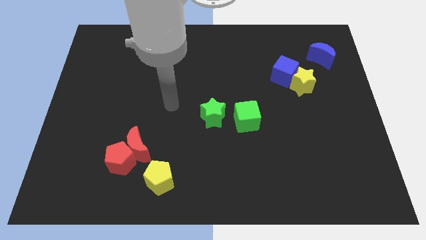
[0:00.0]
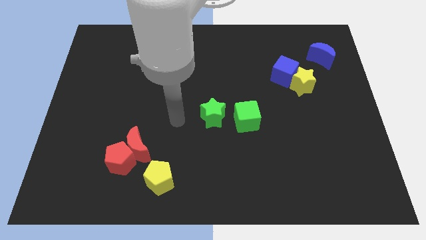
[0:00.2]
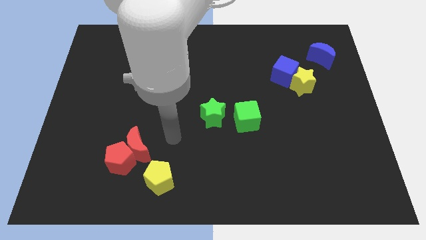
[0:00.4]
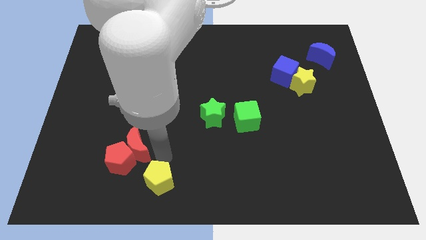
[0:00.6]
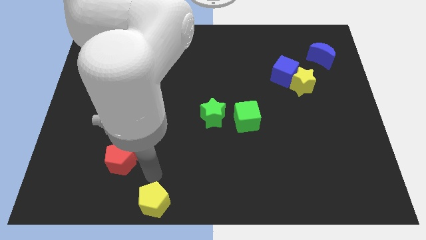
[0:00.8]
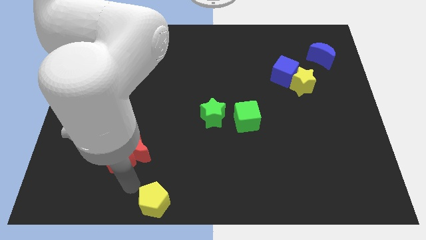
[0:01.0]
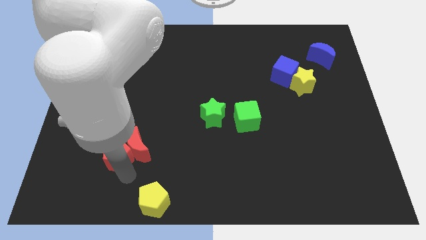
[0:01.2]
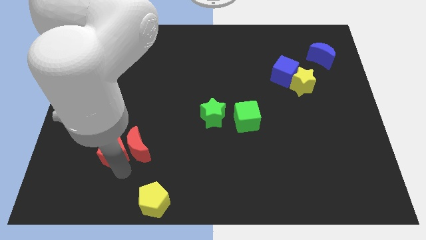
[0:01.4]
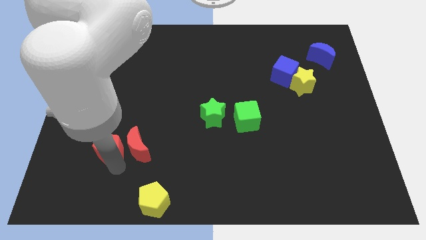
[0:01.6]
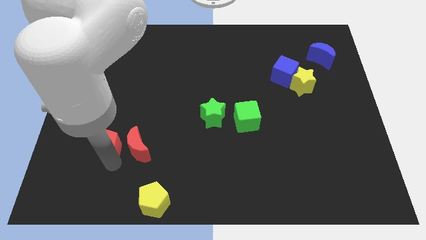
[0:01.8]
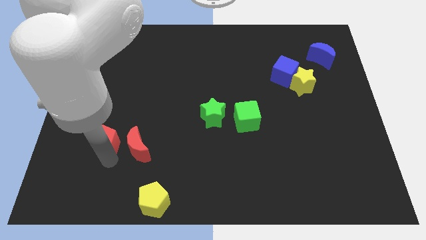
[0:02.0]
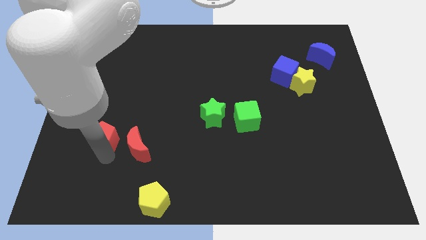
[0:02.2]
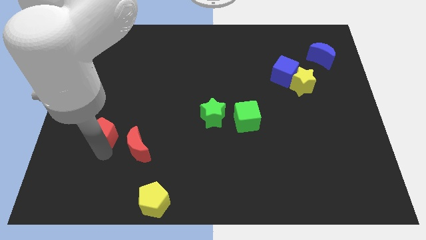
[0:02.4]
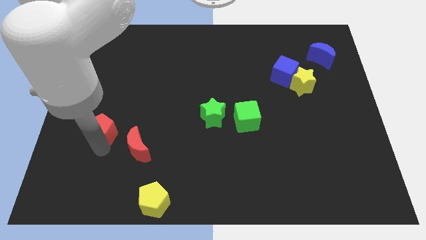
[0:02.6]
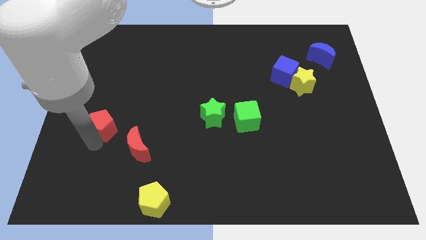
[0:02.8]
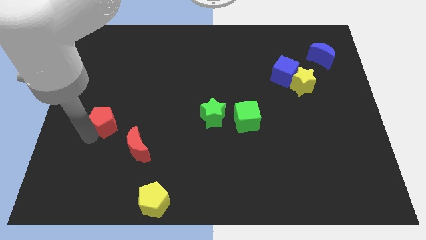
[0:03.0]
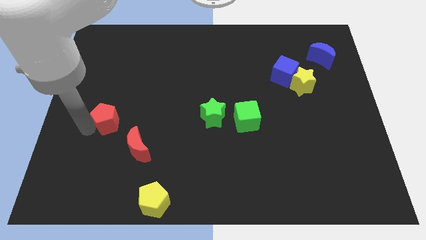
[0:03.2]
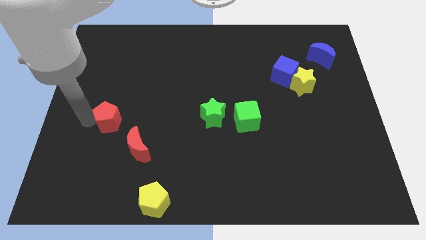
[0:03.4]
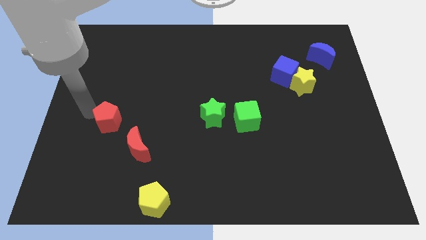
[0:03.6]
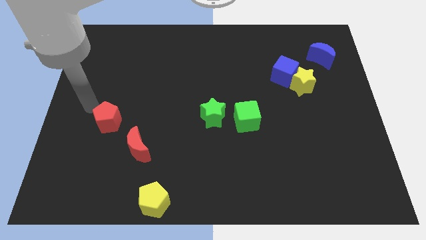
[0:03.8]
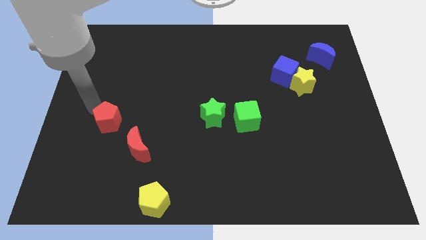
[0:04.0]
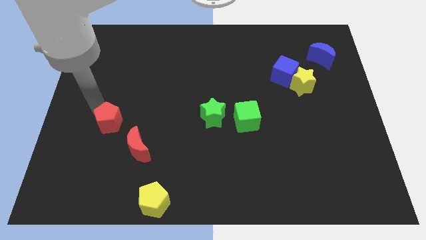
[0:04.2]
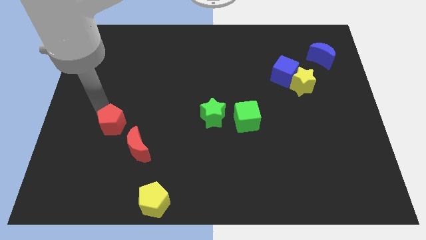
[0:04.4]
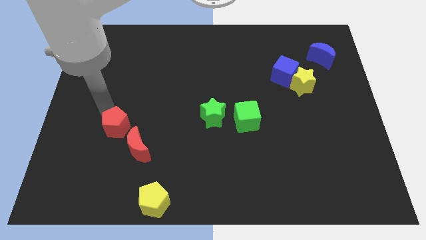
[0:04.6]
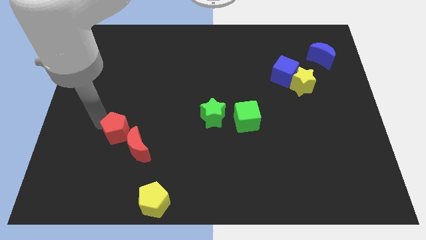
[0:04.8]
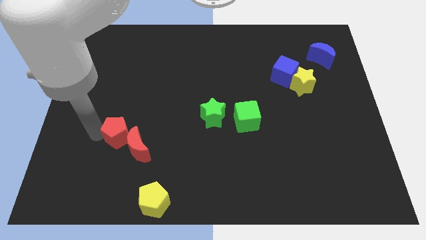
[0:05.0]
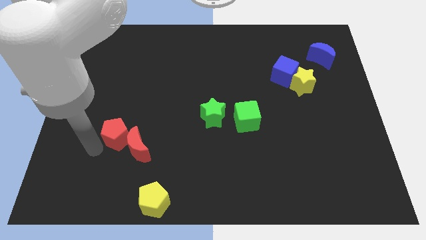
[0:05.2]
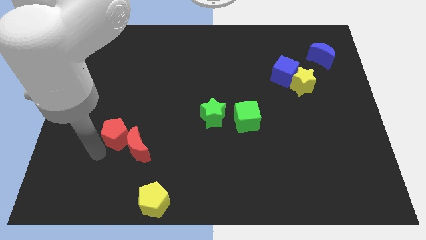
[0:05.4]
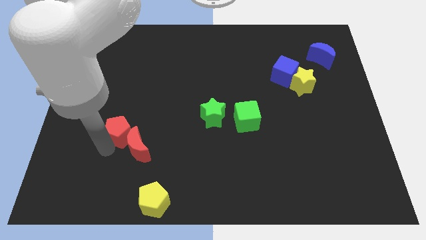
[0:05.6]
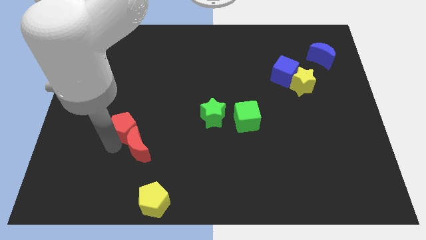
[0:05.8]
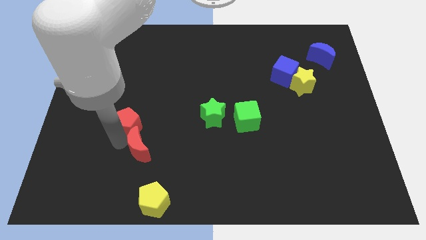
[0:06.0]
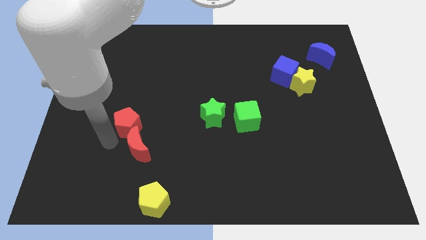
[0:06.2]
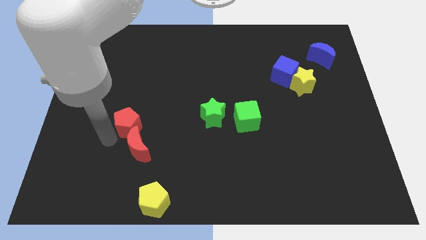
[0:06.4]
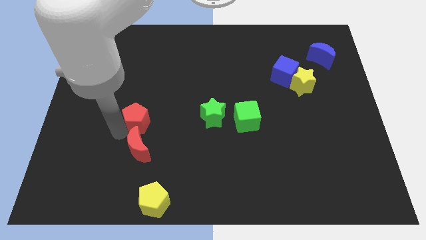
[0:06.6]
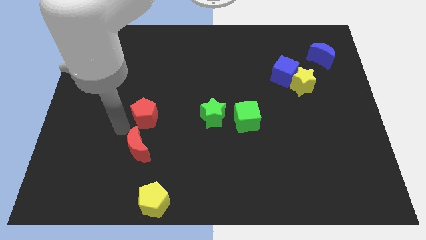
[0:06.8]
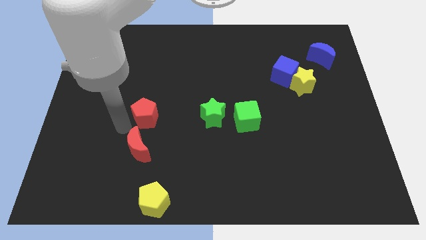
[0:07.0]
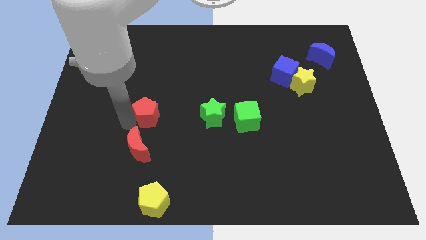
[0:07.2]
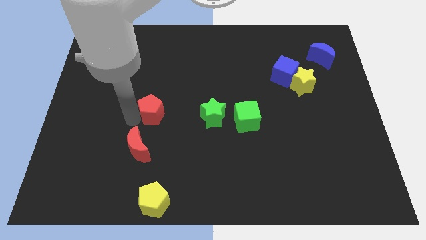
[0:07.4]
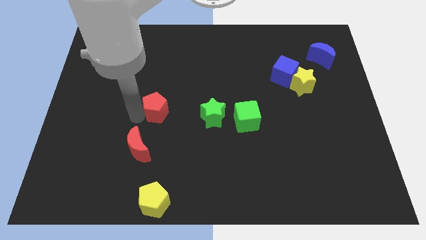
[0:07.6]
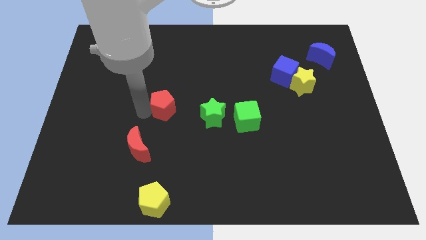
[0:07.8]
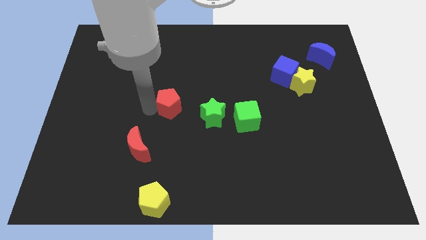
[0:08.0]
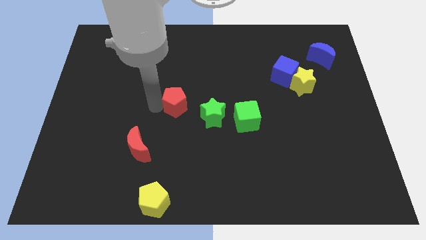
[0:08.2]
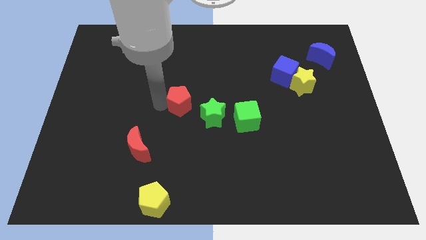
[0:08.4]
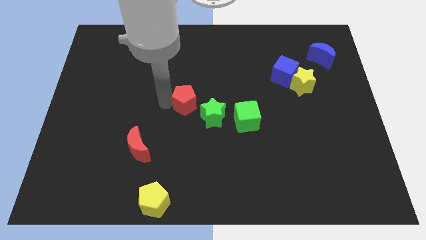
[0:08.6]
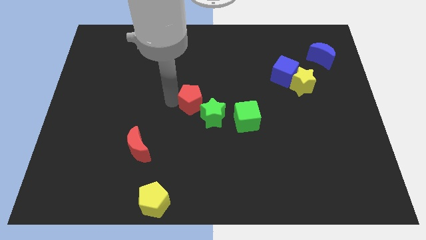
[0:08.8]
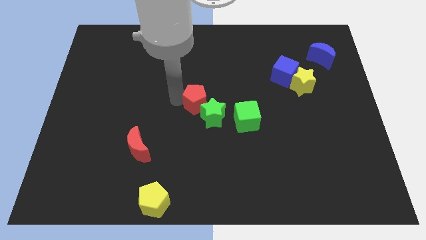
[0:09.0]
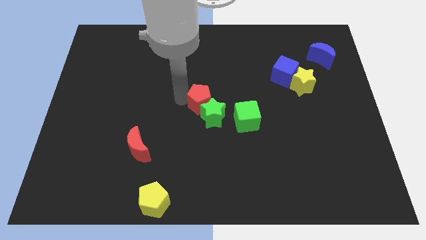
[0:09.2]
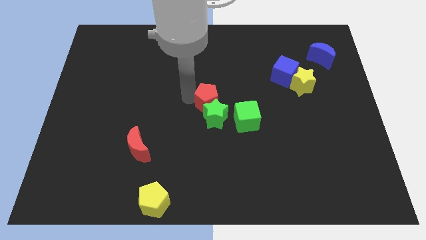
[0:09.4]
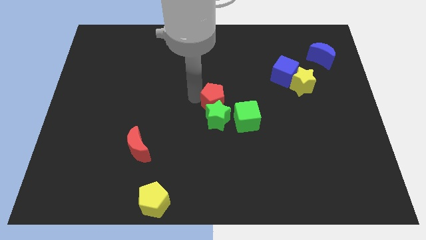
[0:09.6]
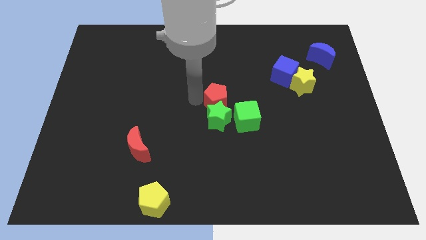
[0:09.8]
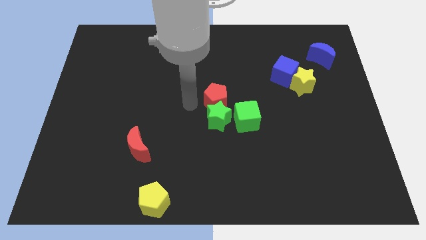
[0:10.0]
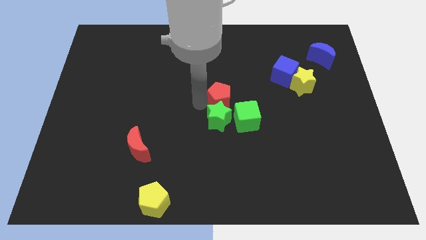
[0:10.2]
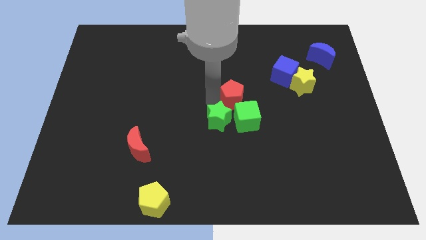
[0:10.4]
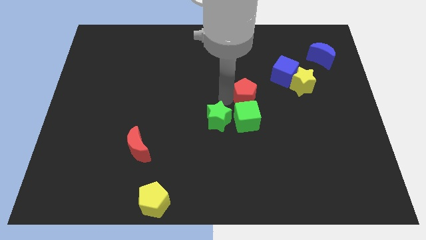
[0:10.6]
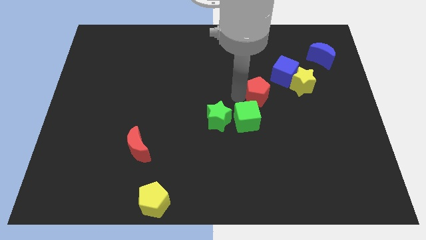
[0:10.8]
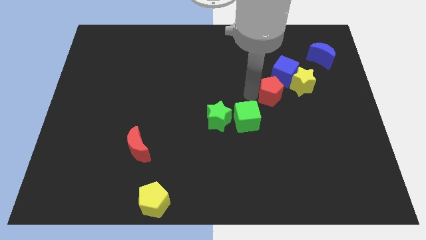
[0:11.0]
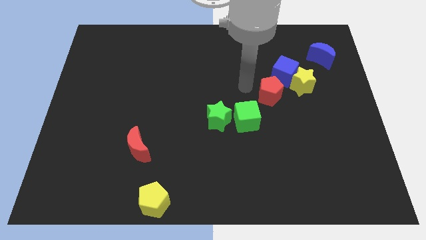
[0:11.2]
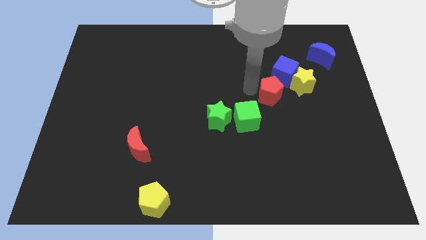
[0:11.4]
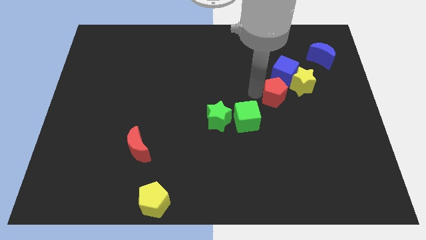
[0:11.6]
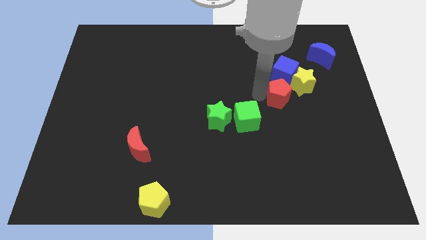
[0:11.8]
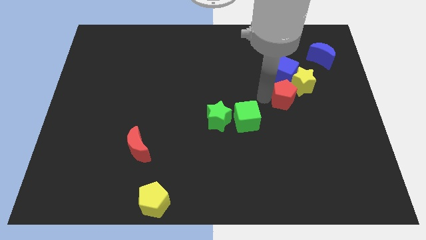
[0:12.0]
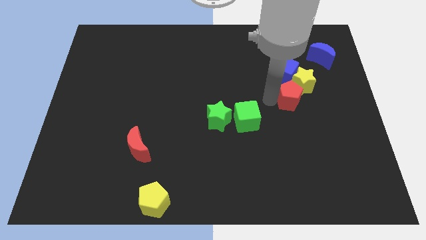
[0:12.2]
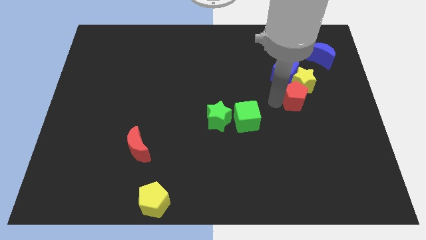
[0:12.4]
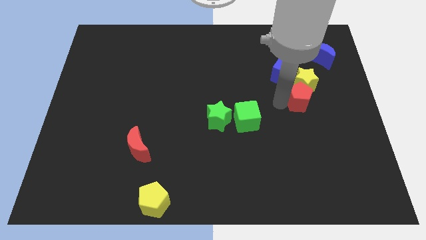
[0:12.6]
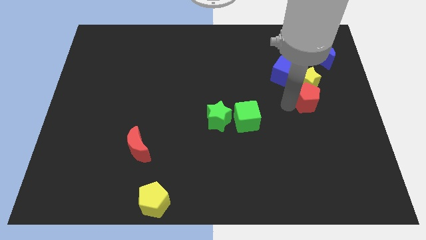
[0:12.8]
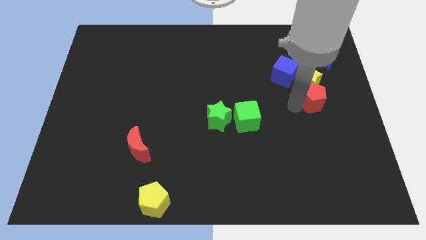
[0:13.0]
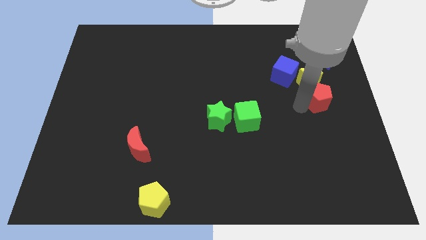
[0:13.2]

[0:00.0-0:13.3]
put the red pentagon to the center right
